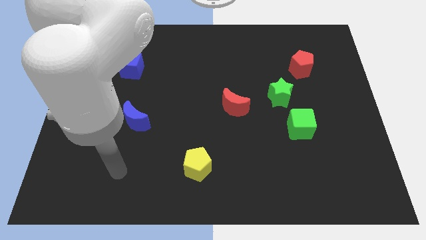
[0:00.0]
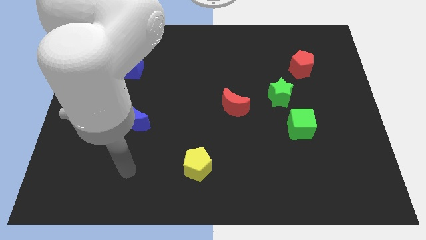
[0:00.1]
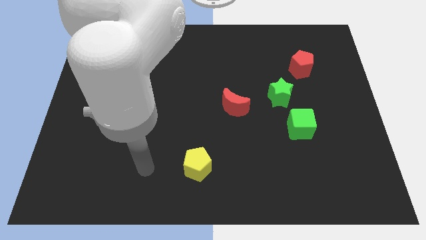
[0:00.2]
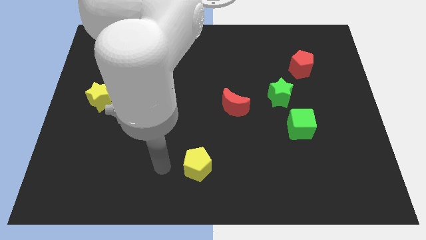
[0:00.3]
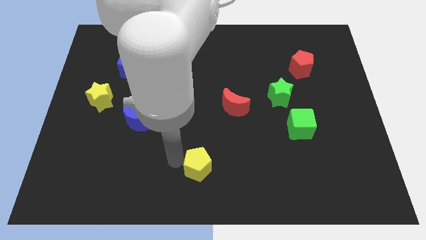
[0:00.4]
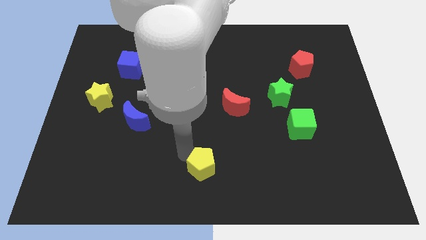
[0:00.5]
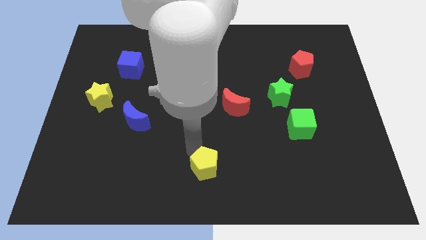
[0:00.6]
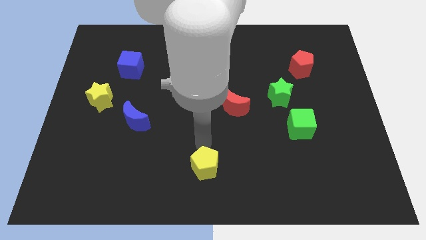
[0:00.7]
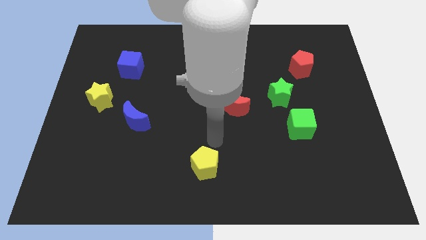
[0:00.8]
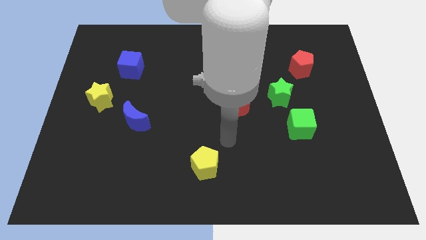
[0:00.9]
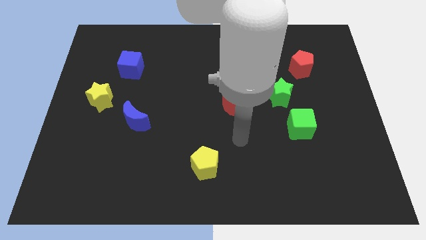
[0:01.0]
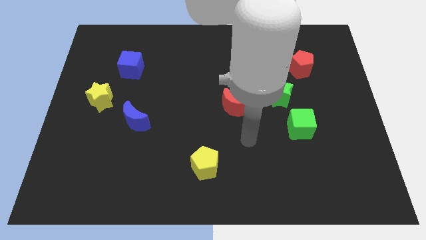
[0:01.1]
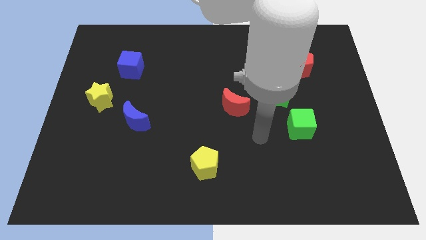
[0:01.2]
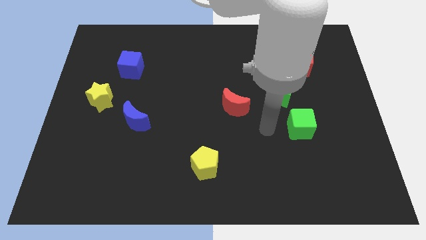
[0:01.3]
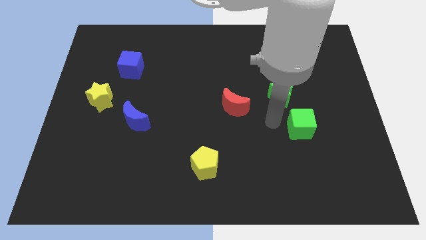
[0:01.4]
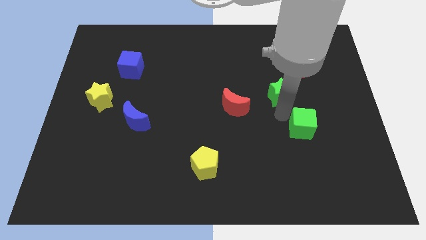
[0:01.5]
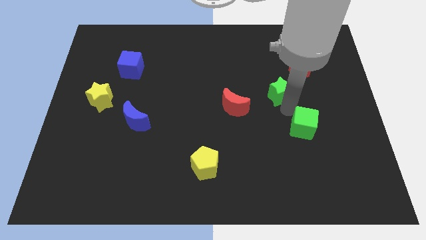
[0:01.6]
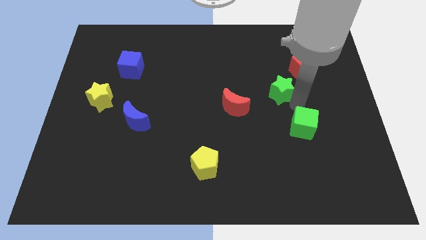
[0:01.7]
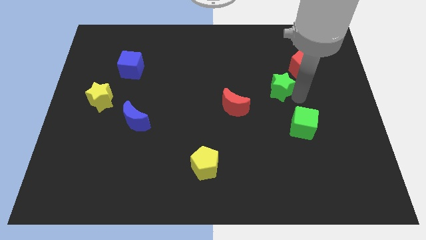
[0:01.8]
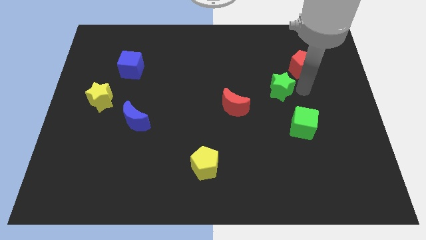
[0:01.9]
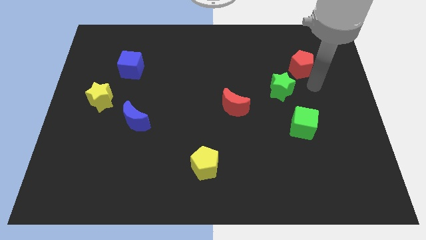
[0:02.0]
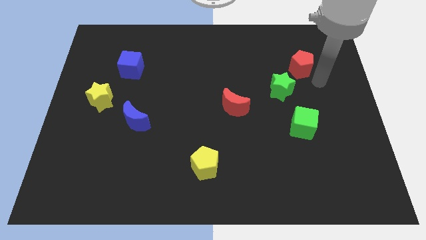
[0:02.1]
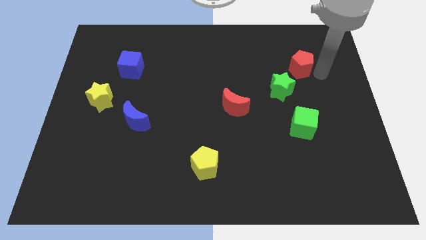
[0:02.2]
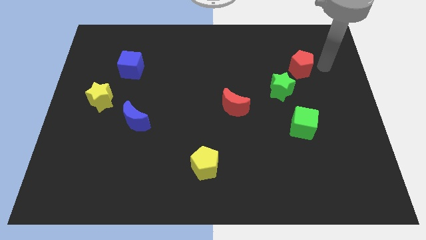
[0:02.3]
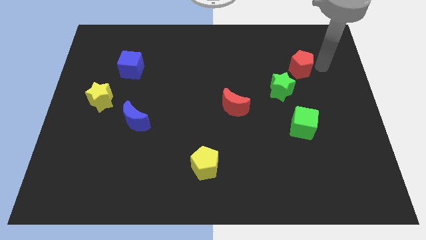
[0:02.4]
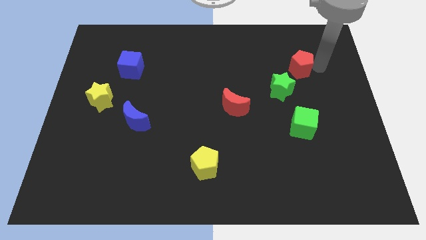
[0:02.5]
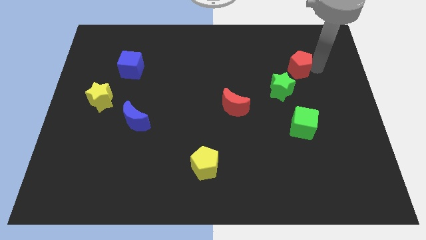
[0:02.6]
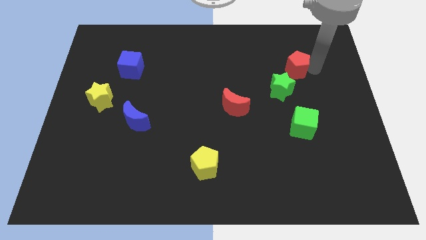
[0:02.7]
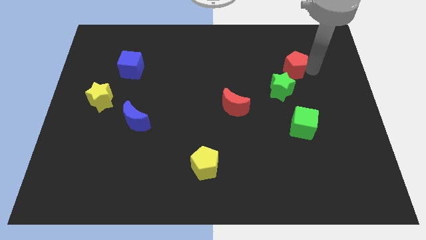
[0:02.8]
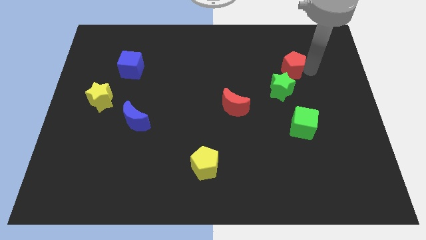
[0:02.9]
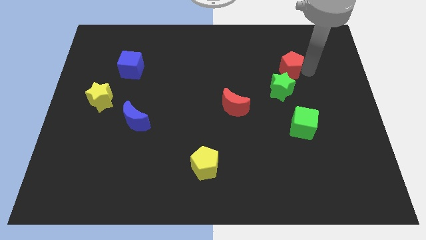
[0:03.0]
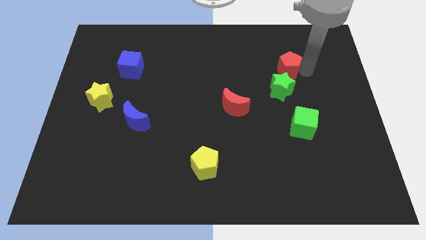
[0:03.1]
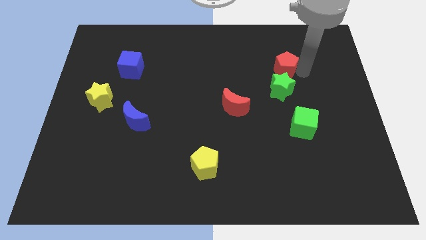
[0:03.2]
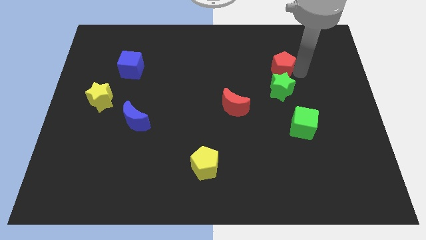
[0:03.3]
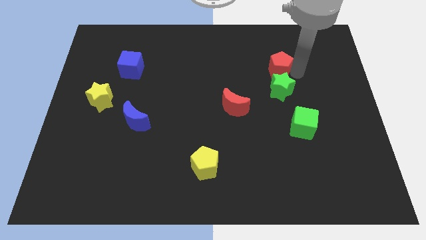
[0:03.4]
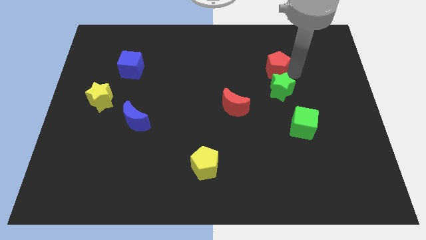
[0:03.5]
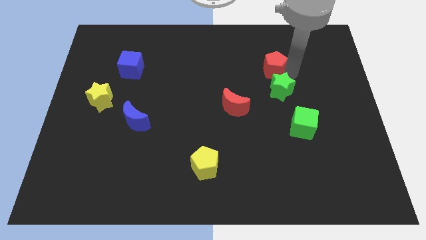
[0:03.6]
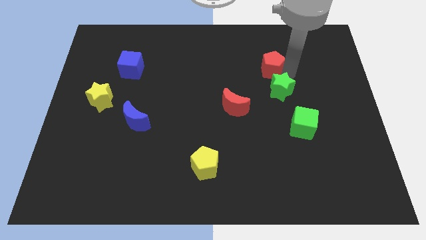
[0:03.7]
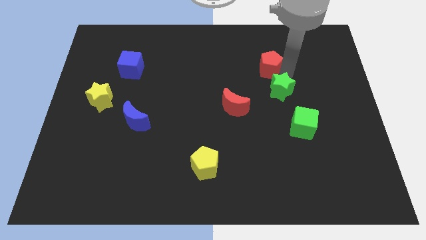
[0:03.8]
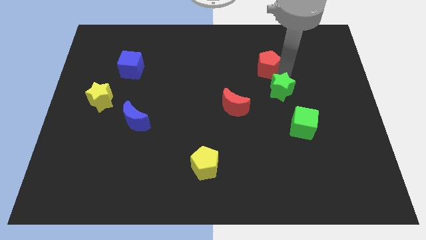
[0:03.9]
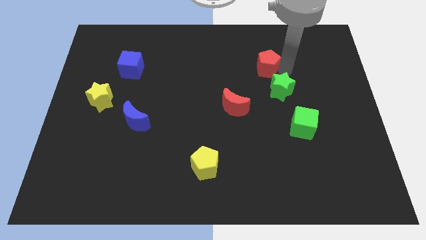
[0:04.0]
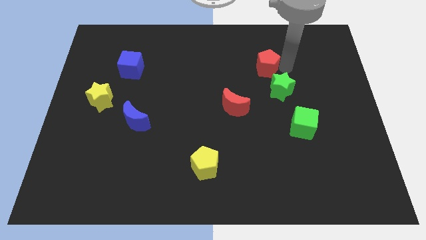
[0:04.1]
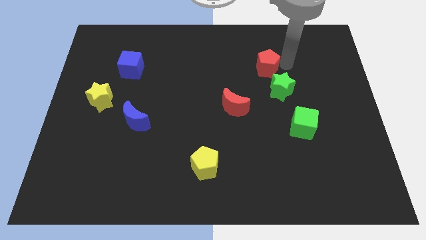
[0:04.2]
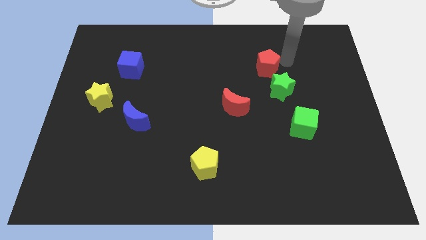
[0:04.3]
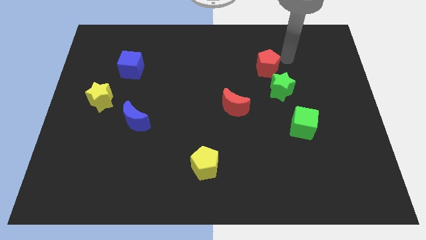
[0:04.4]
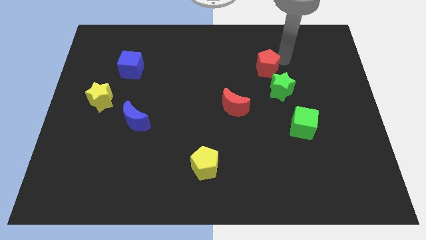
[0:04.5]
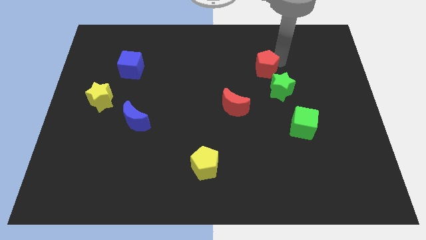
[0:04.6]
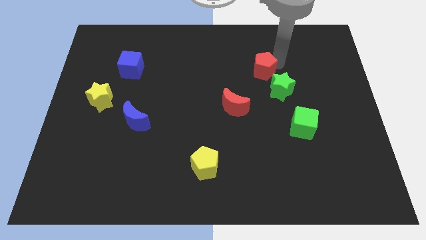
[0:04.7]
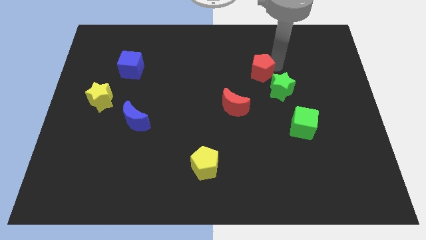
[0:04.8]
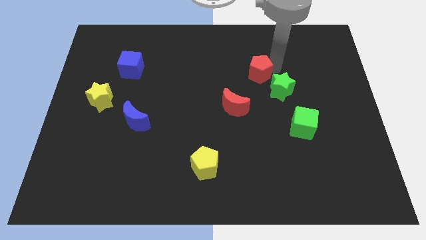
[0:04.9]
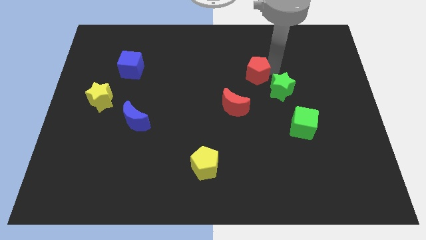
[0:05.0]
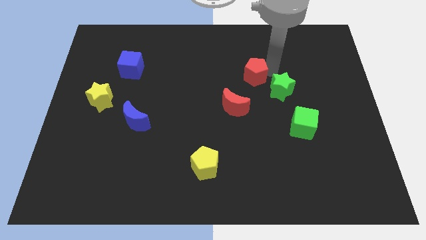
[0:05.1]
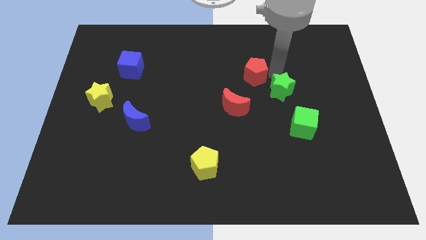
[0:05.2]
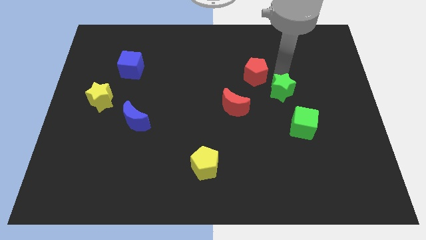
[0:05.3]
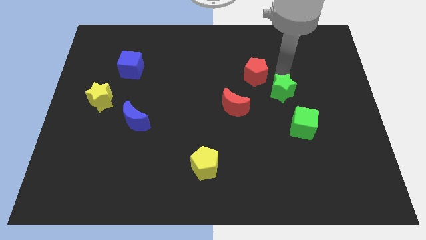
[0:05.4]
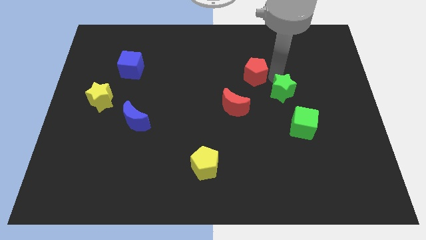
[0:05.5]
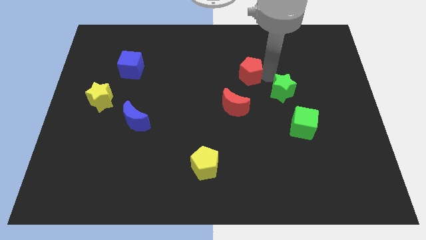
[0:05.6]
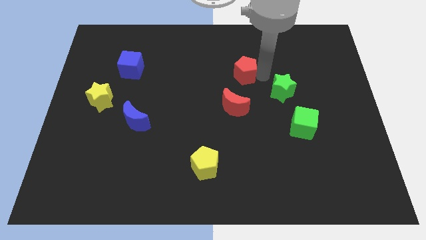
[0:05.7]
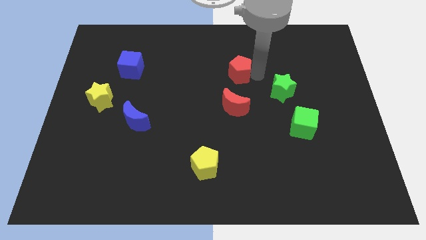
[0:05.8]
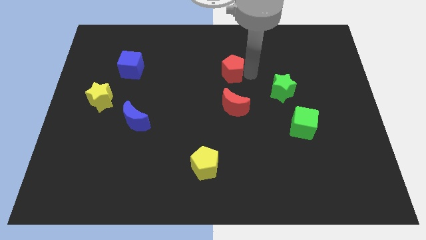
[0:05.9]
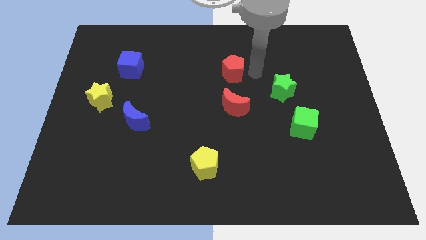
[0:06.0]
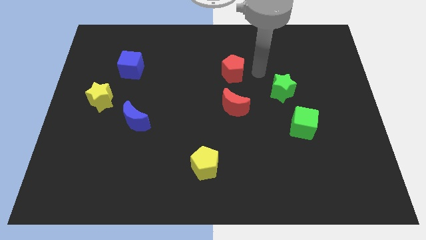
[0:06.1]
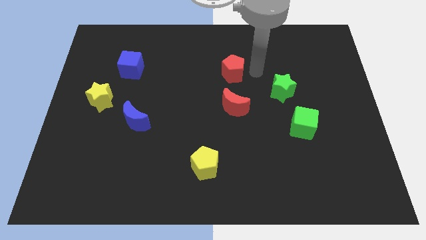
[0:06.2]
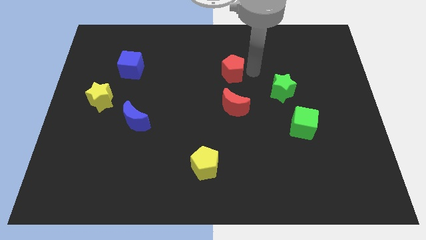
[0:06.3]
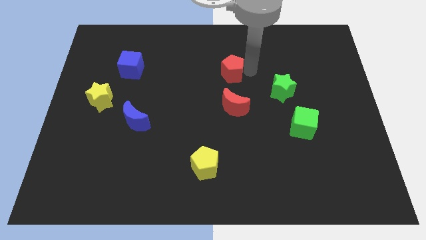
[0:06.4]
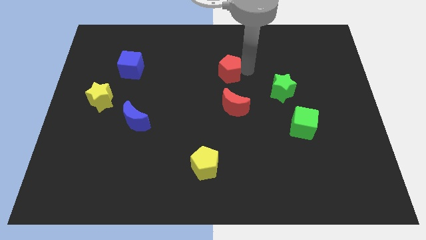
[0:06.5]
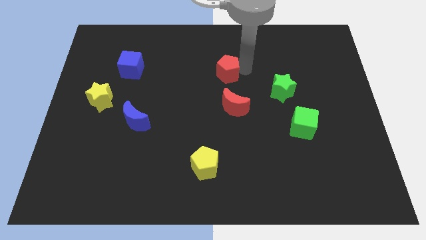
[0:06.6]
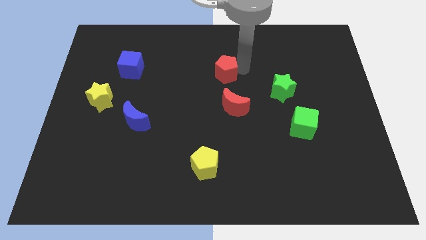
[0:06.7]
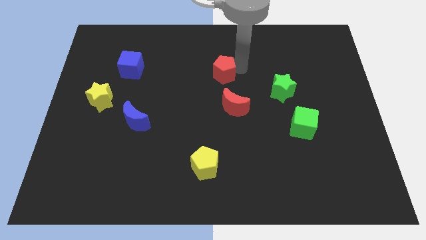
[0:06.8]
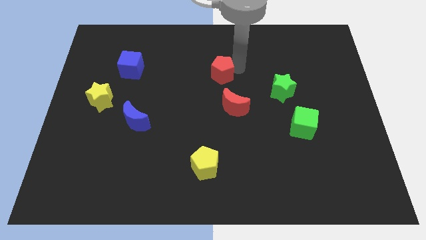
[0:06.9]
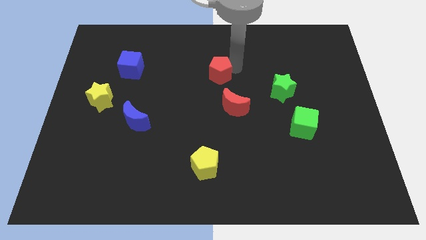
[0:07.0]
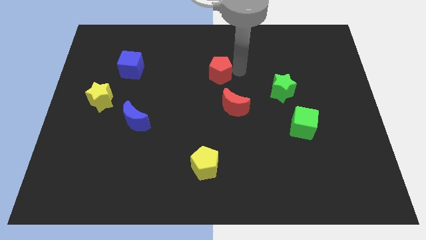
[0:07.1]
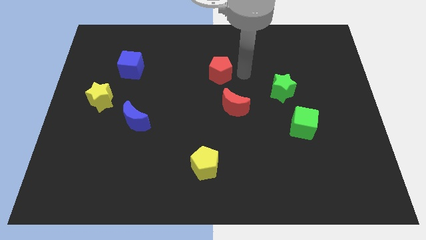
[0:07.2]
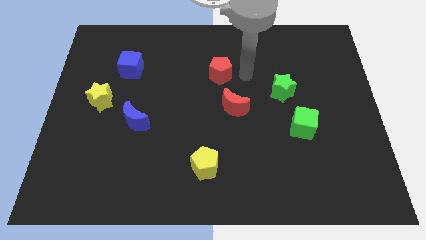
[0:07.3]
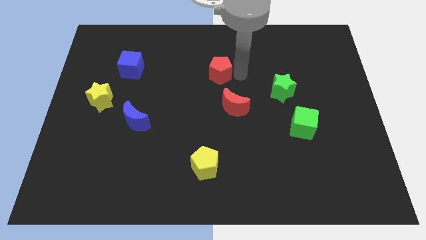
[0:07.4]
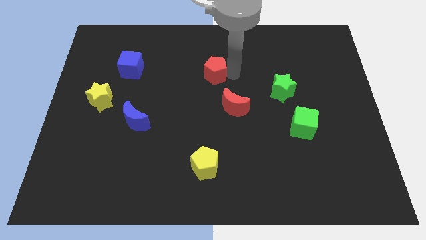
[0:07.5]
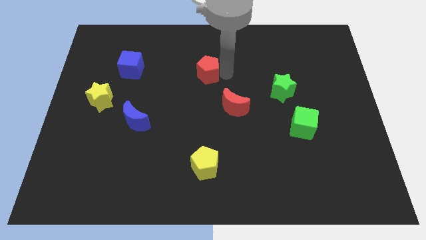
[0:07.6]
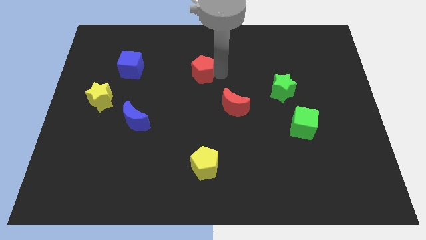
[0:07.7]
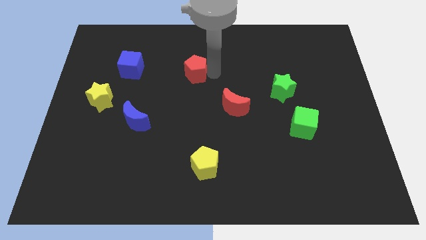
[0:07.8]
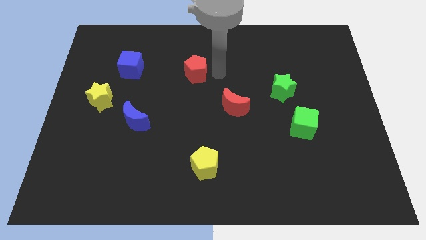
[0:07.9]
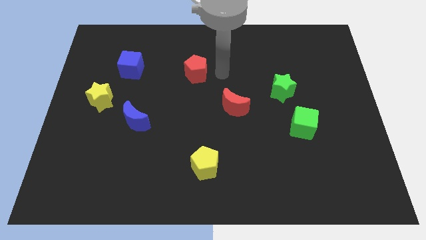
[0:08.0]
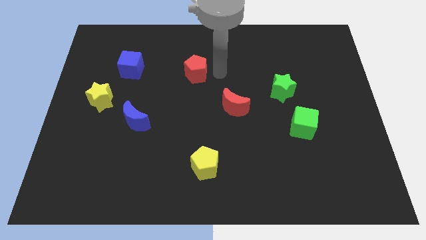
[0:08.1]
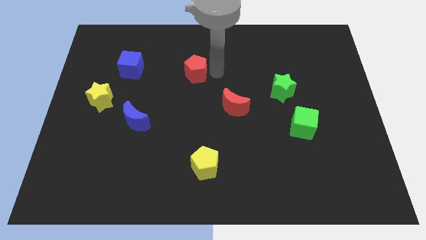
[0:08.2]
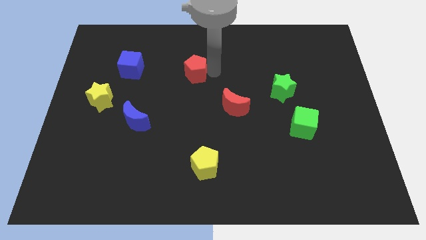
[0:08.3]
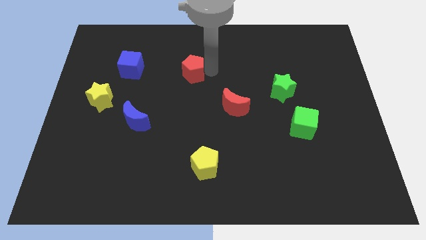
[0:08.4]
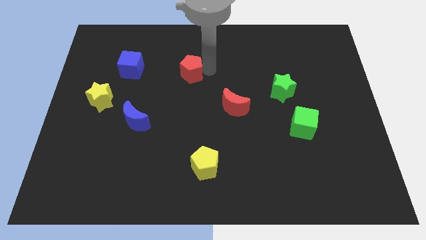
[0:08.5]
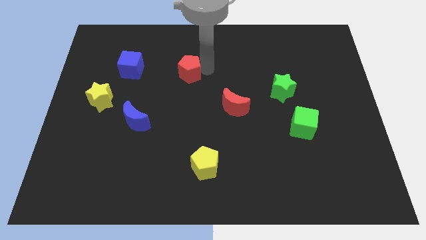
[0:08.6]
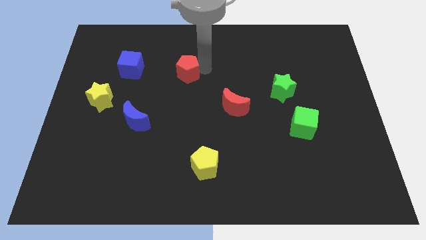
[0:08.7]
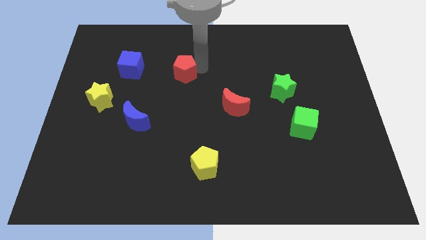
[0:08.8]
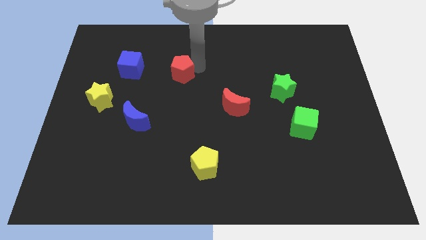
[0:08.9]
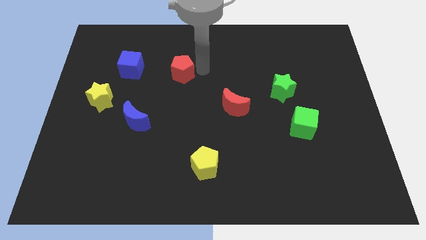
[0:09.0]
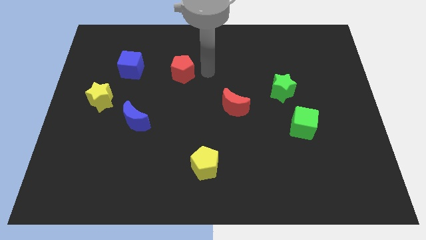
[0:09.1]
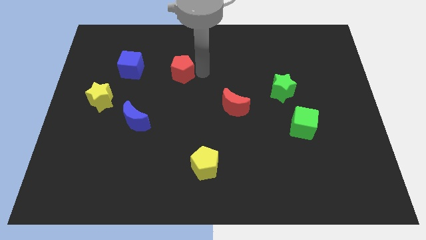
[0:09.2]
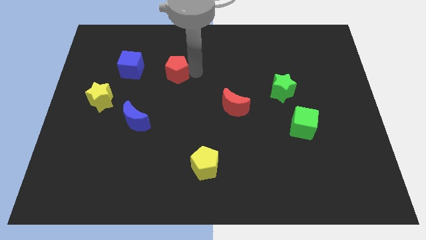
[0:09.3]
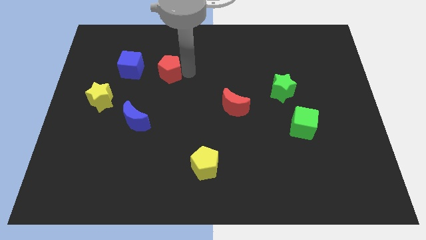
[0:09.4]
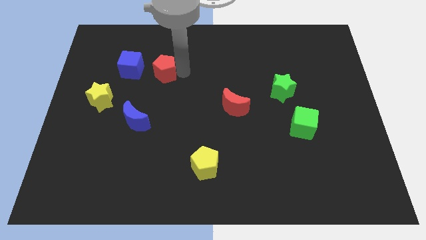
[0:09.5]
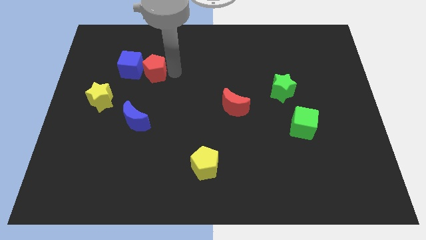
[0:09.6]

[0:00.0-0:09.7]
put the red pentagon close to the blue cube
